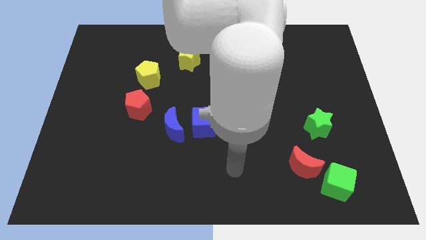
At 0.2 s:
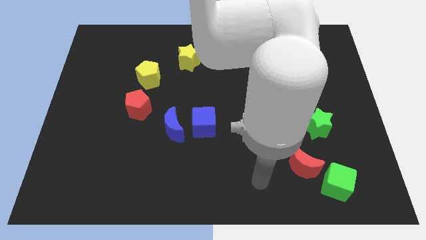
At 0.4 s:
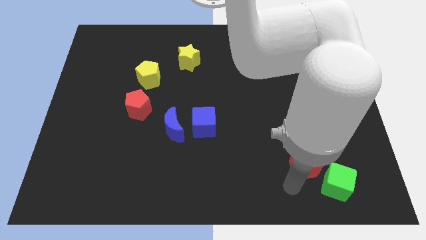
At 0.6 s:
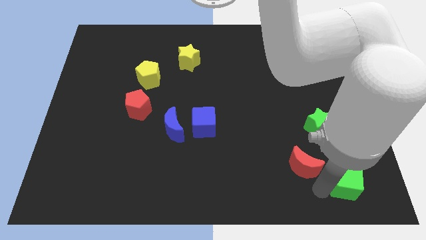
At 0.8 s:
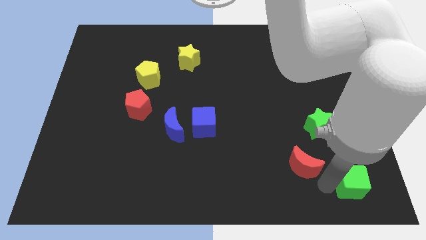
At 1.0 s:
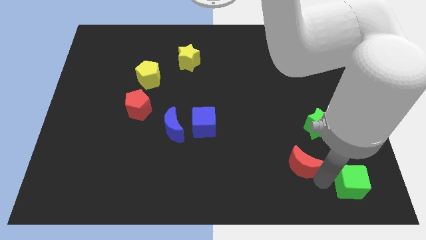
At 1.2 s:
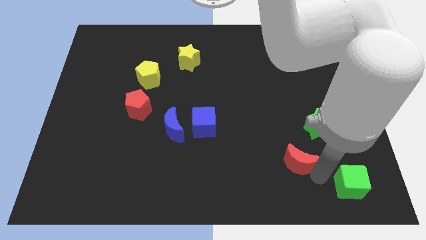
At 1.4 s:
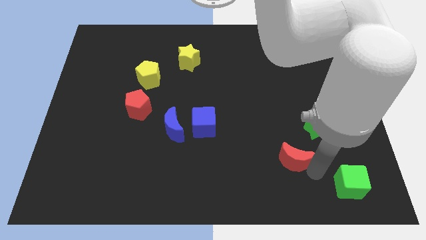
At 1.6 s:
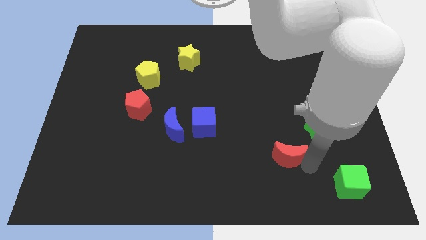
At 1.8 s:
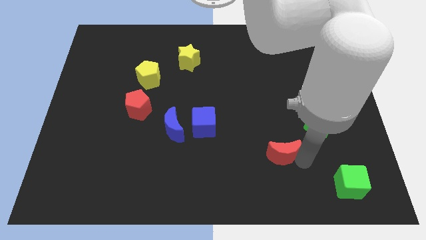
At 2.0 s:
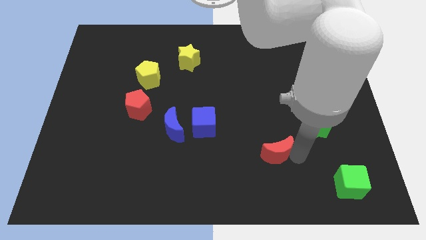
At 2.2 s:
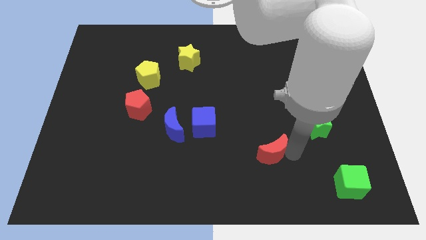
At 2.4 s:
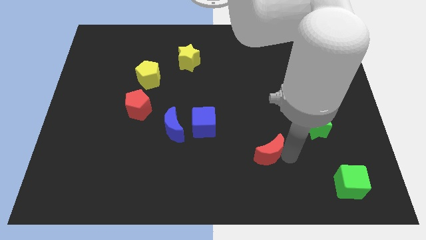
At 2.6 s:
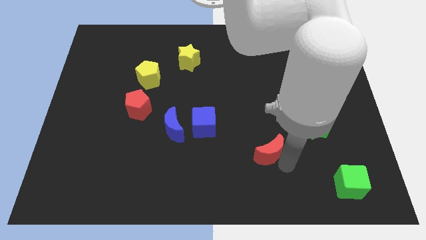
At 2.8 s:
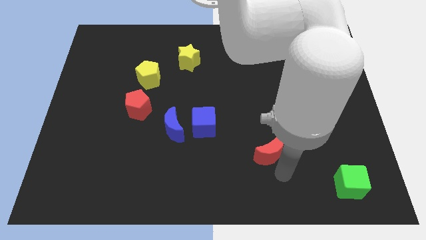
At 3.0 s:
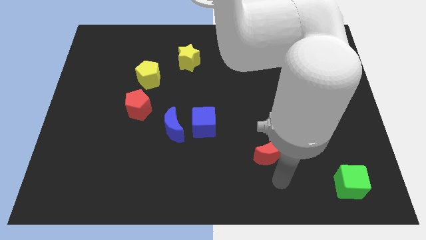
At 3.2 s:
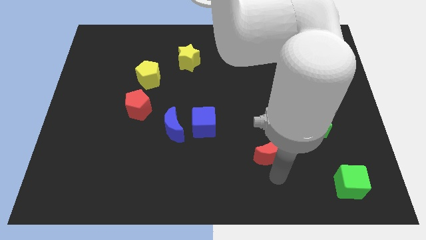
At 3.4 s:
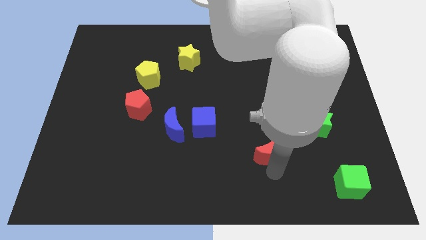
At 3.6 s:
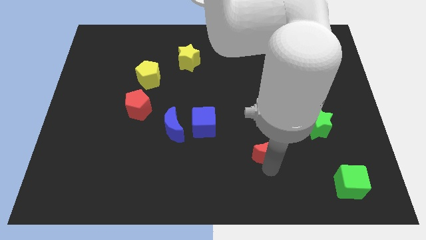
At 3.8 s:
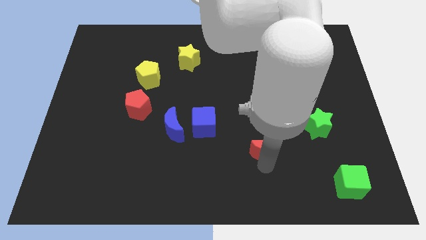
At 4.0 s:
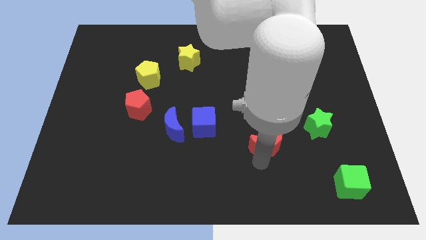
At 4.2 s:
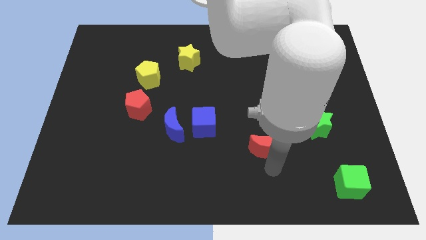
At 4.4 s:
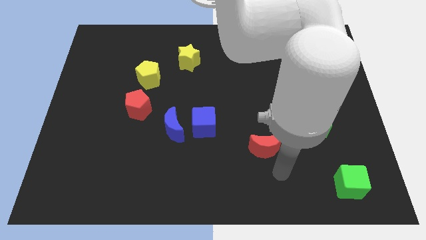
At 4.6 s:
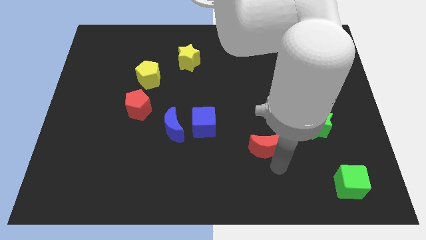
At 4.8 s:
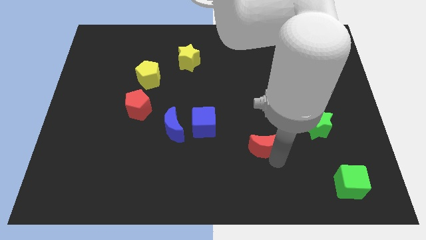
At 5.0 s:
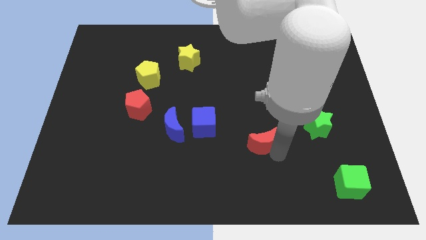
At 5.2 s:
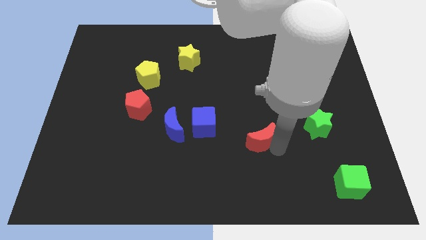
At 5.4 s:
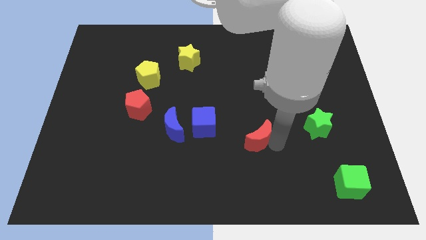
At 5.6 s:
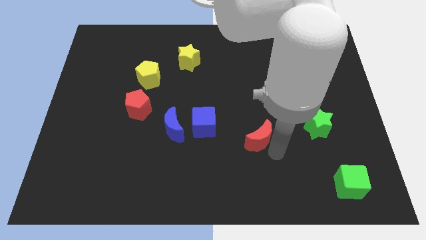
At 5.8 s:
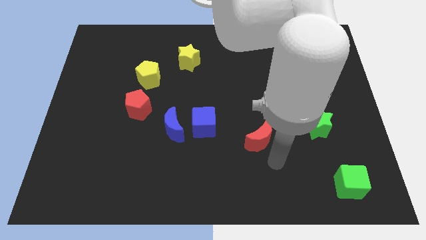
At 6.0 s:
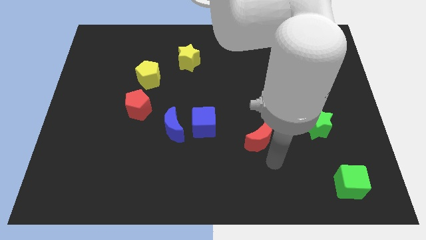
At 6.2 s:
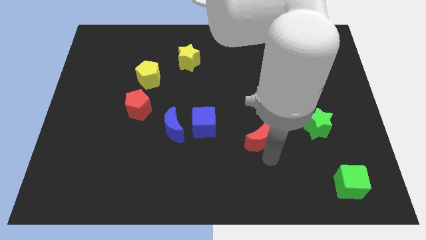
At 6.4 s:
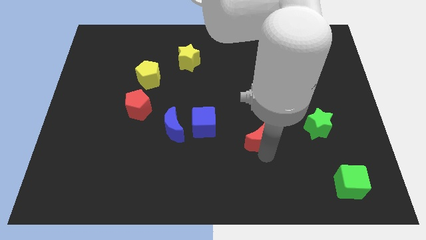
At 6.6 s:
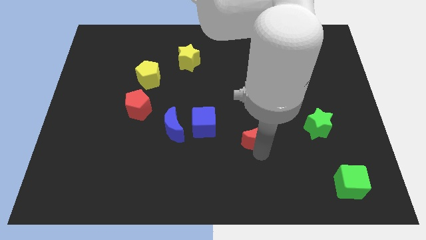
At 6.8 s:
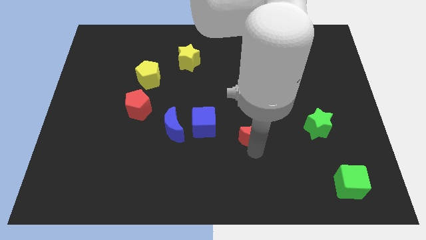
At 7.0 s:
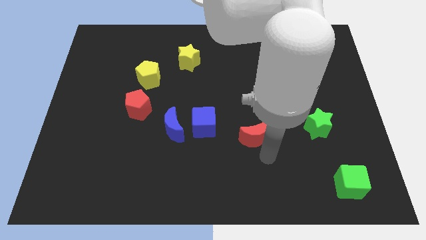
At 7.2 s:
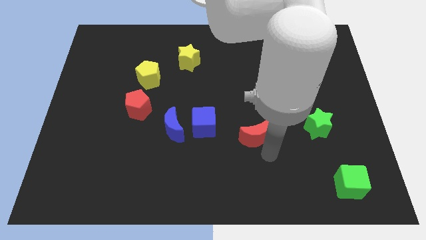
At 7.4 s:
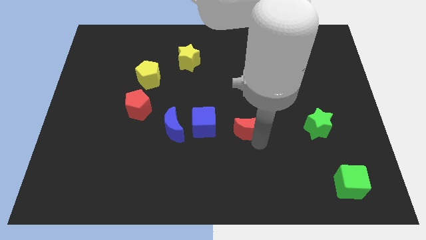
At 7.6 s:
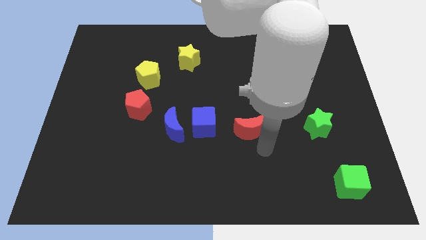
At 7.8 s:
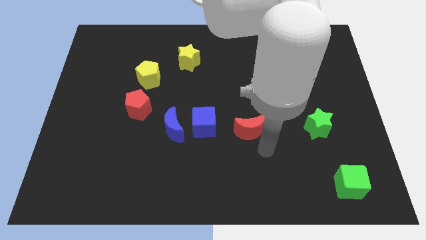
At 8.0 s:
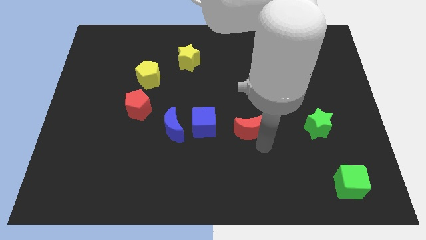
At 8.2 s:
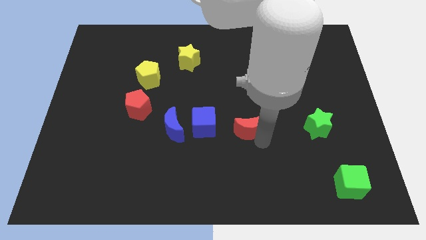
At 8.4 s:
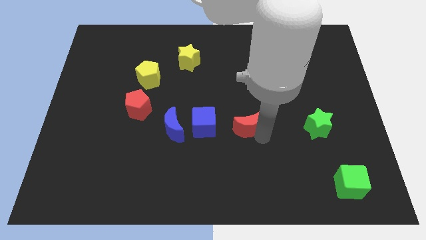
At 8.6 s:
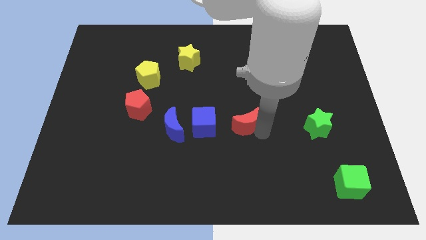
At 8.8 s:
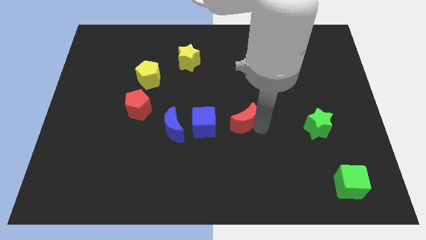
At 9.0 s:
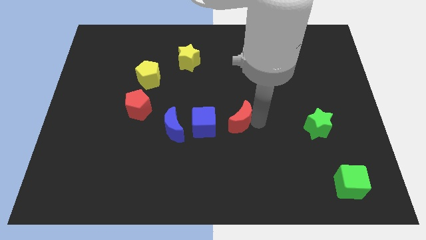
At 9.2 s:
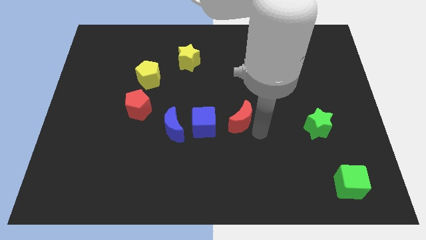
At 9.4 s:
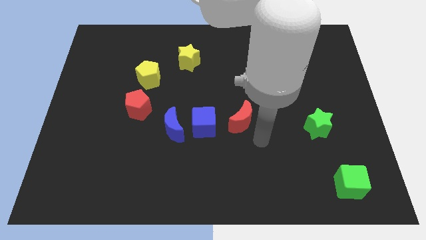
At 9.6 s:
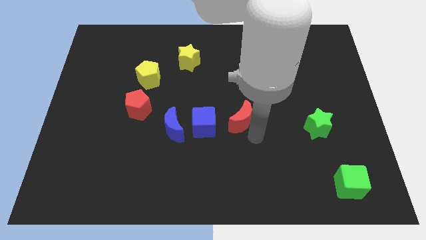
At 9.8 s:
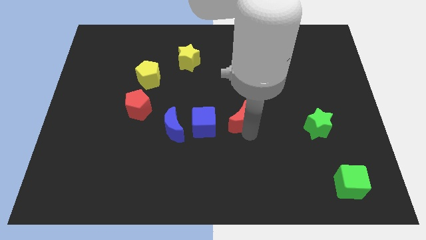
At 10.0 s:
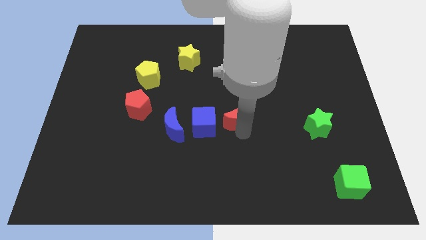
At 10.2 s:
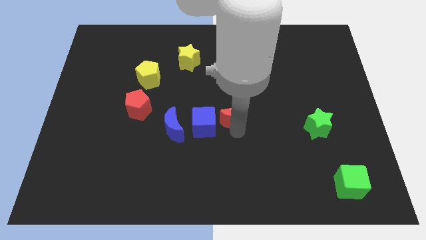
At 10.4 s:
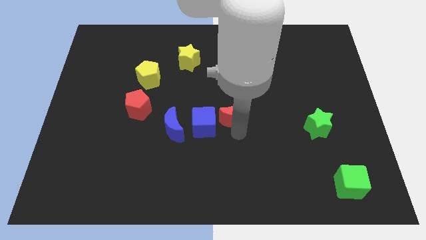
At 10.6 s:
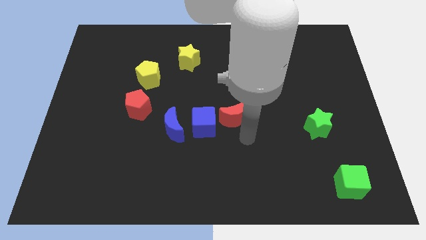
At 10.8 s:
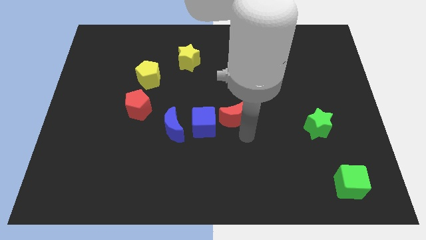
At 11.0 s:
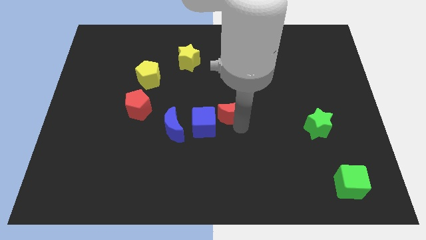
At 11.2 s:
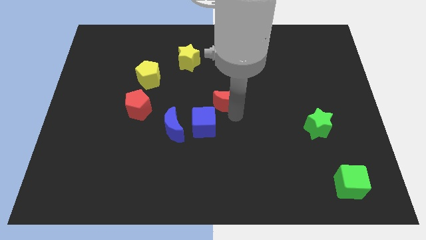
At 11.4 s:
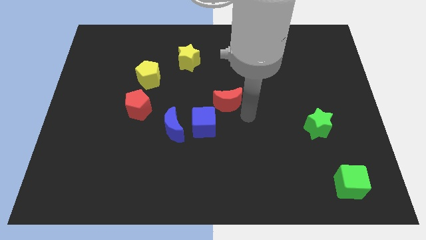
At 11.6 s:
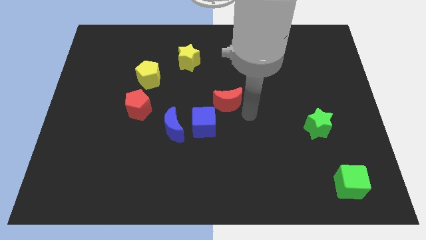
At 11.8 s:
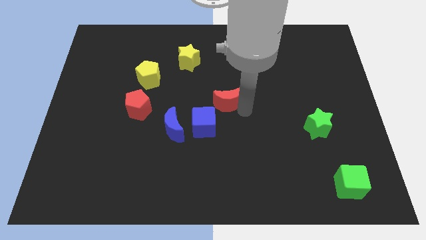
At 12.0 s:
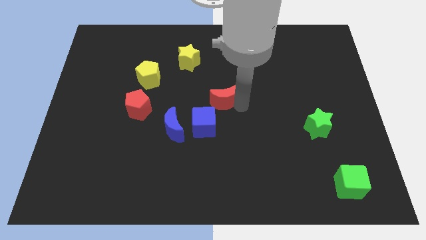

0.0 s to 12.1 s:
push the red moon to the top side of the blue cube
